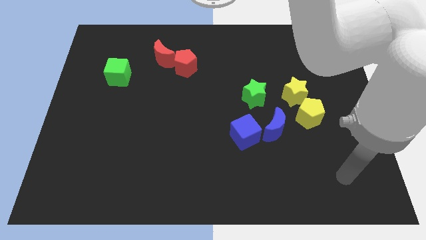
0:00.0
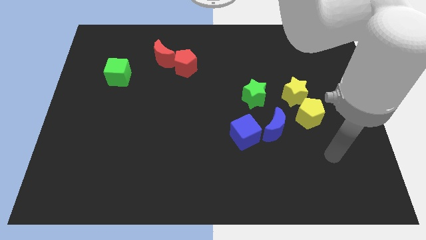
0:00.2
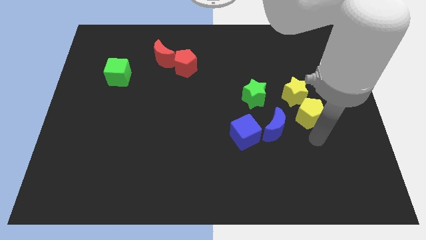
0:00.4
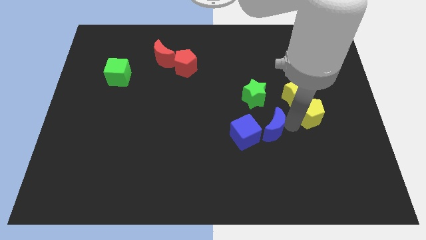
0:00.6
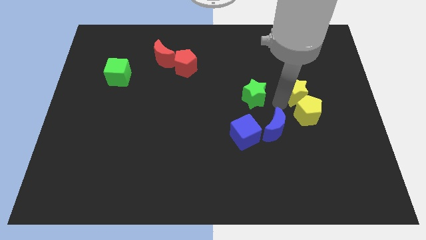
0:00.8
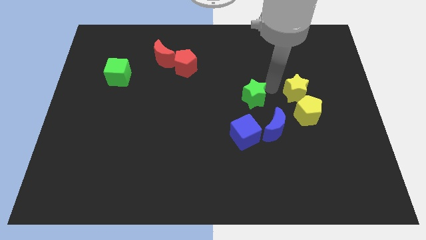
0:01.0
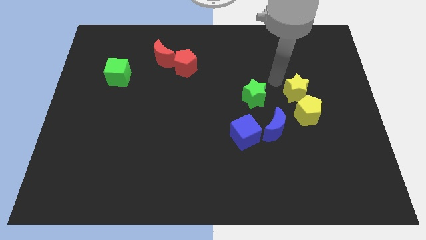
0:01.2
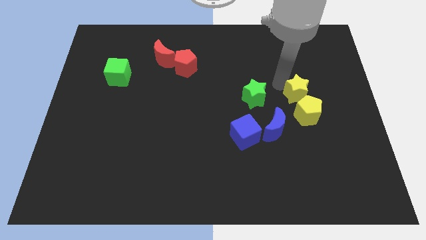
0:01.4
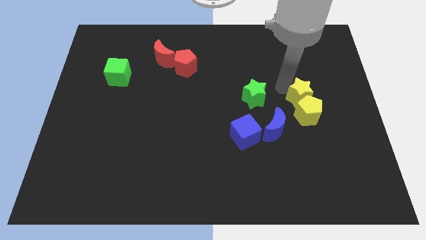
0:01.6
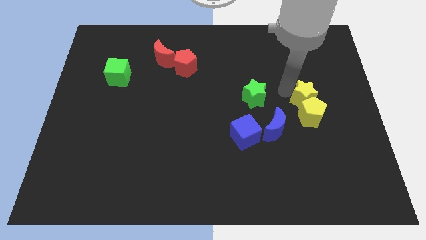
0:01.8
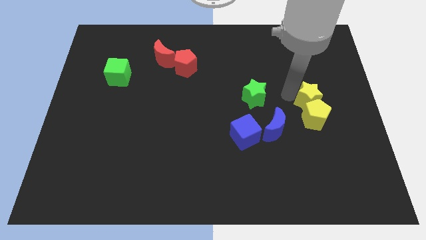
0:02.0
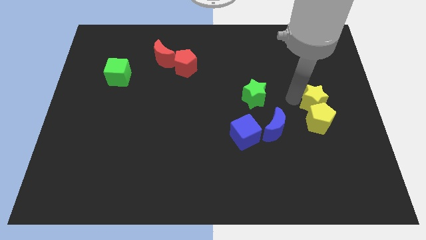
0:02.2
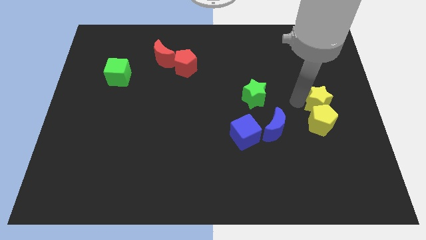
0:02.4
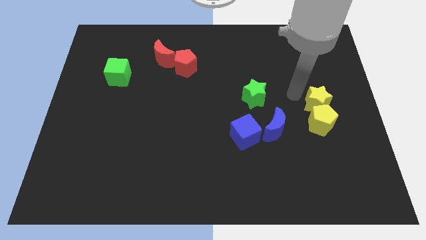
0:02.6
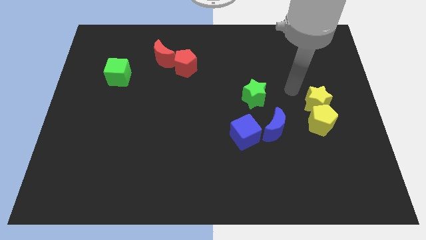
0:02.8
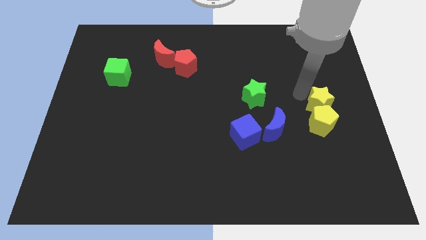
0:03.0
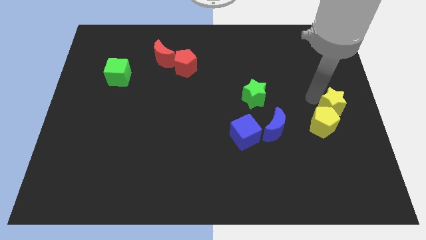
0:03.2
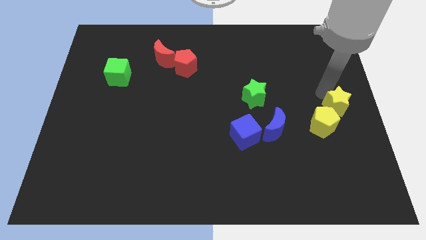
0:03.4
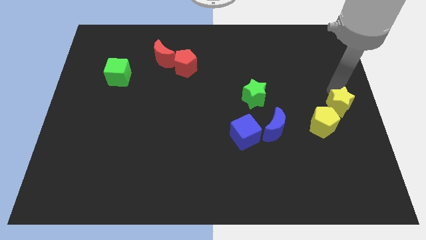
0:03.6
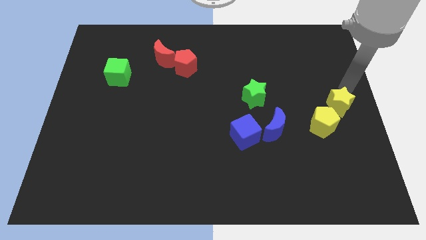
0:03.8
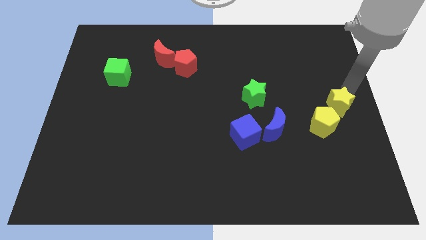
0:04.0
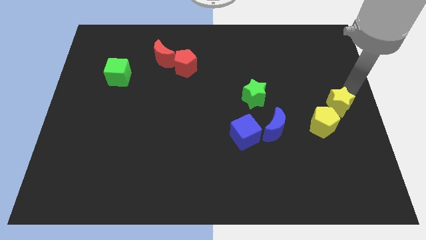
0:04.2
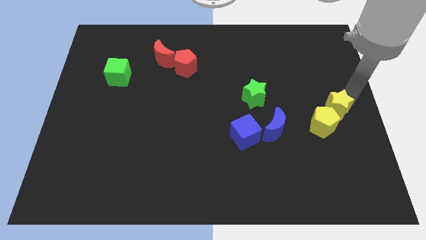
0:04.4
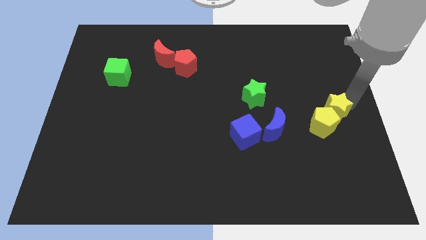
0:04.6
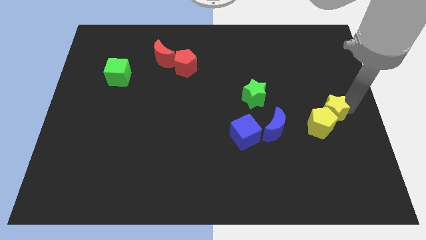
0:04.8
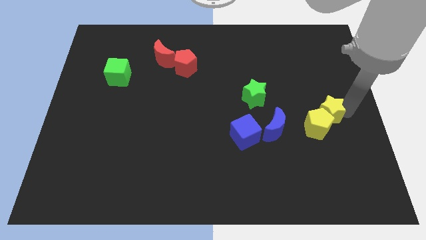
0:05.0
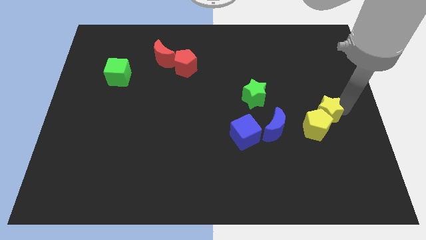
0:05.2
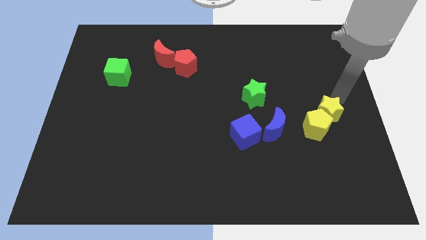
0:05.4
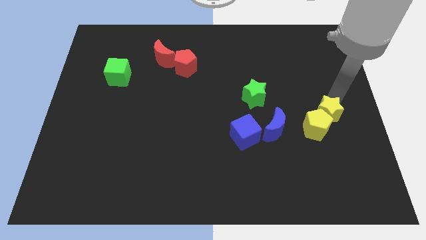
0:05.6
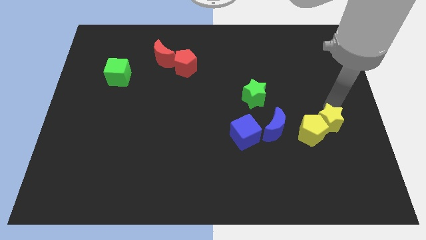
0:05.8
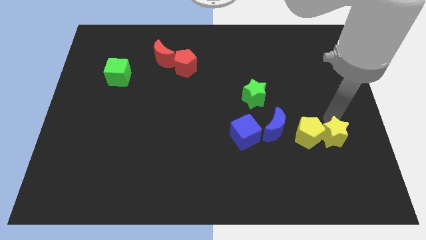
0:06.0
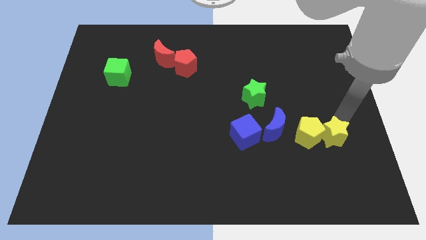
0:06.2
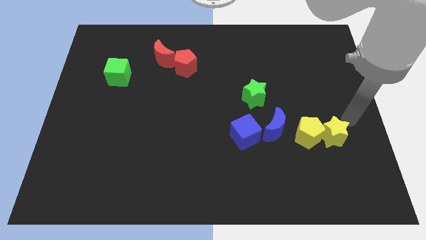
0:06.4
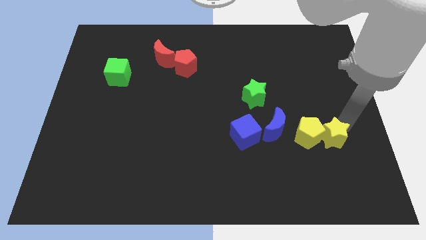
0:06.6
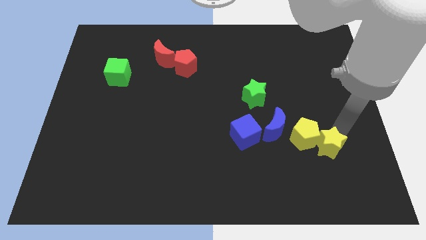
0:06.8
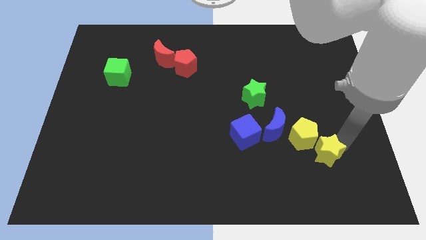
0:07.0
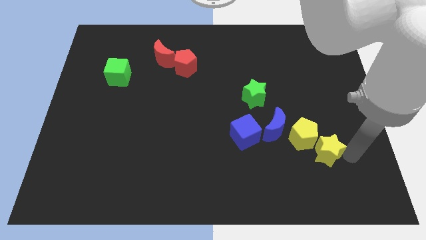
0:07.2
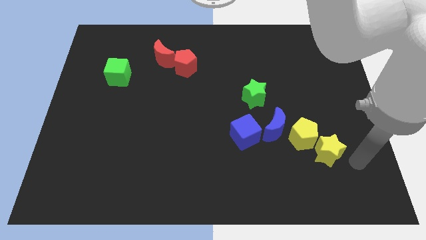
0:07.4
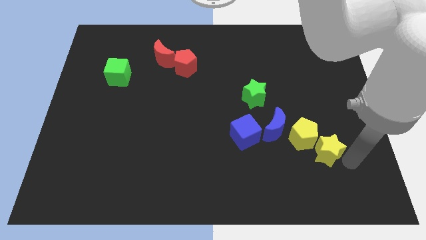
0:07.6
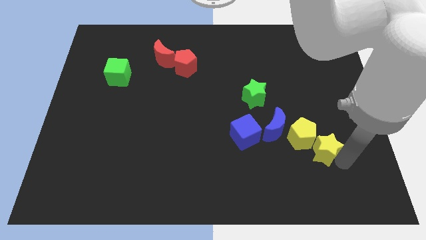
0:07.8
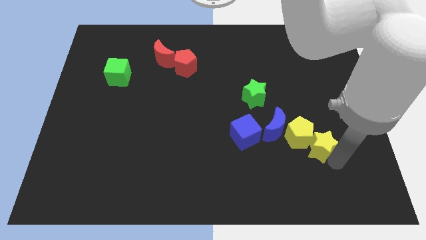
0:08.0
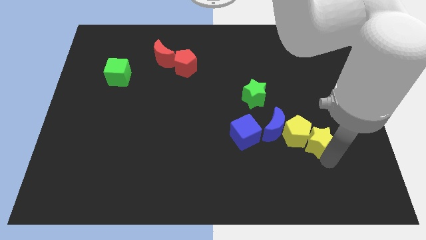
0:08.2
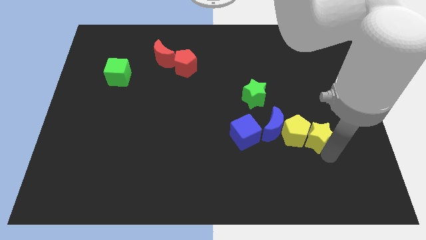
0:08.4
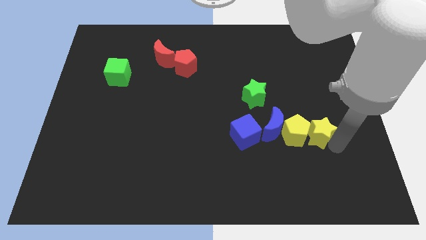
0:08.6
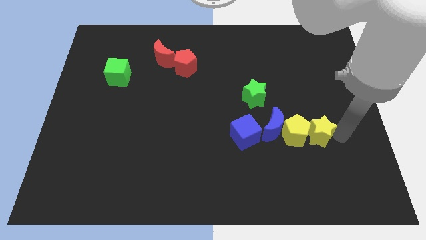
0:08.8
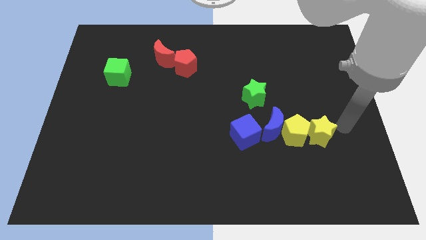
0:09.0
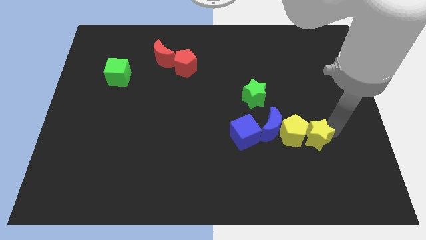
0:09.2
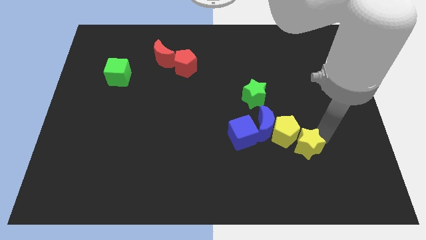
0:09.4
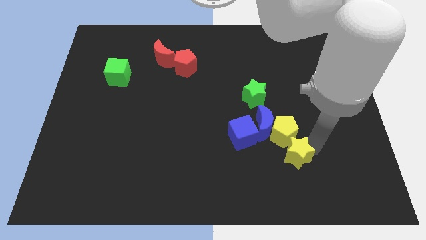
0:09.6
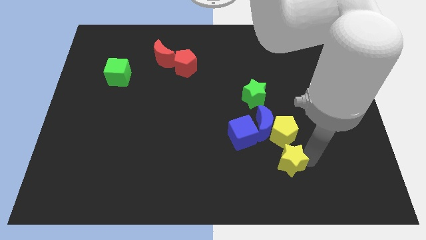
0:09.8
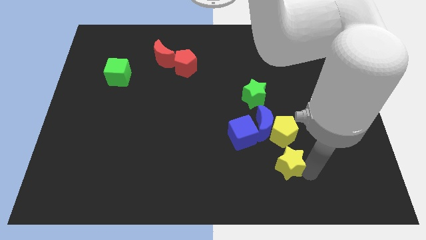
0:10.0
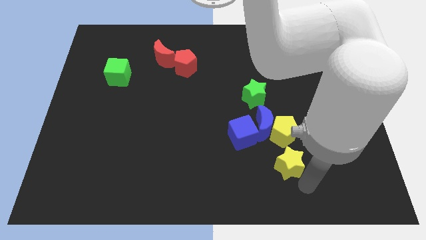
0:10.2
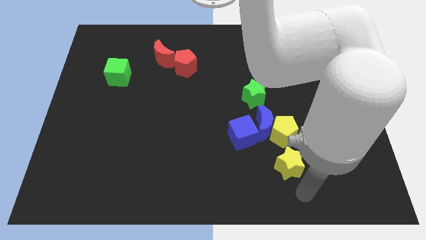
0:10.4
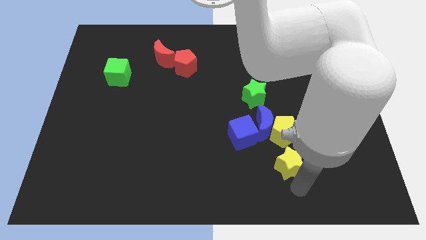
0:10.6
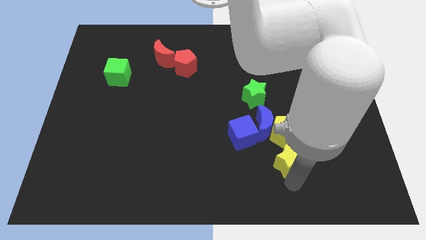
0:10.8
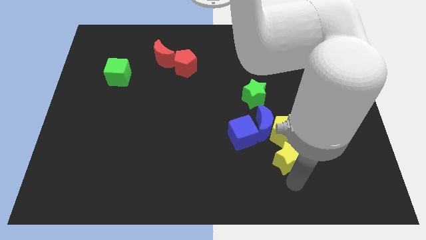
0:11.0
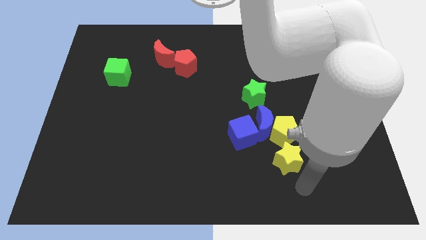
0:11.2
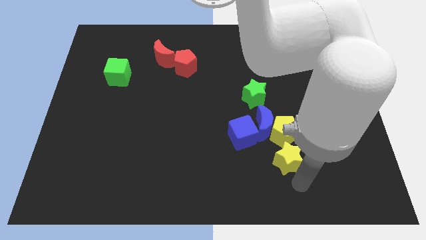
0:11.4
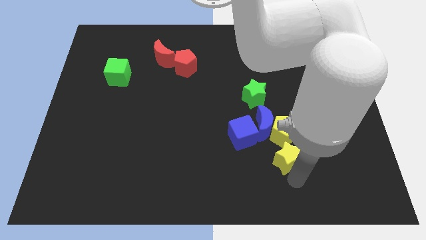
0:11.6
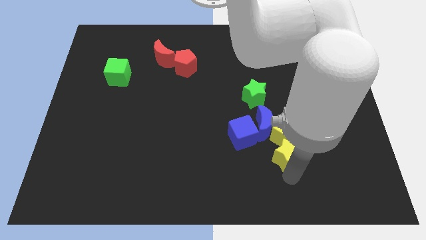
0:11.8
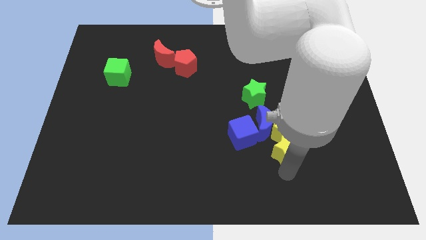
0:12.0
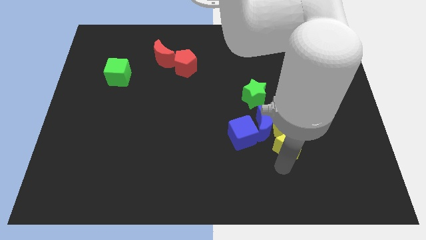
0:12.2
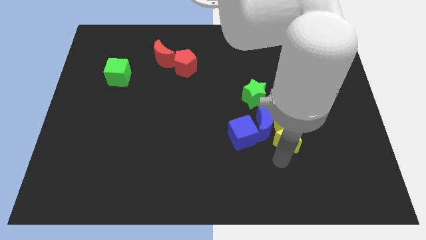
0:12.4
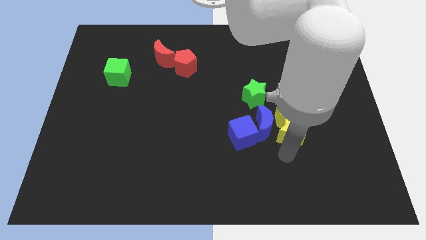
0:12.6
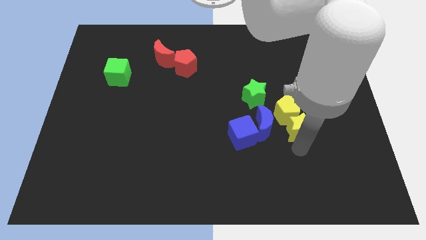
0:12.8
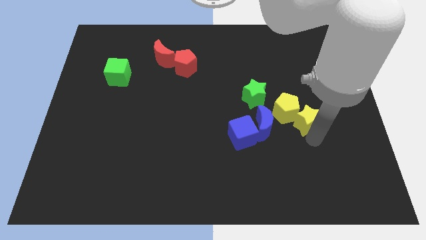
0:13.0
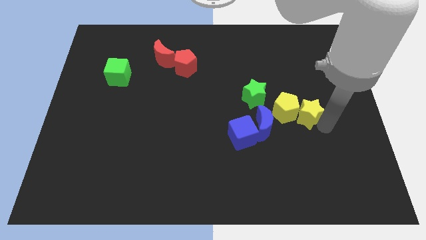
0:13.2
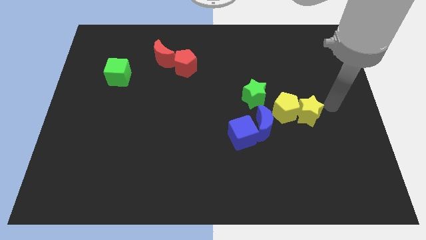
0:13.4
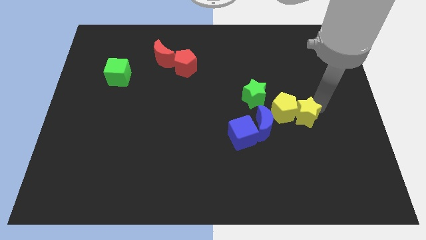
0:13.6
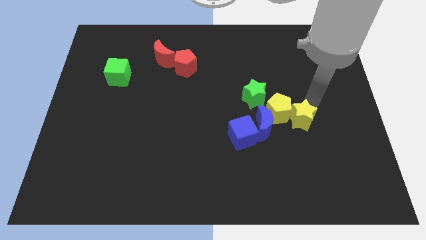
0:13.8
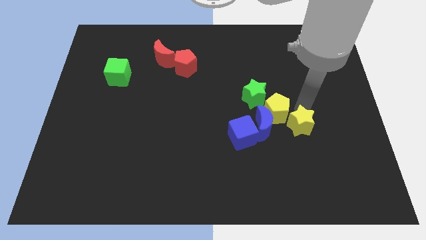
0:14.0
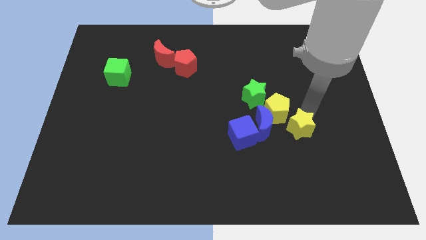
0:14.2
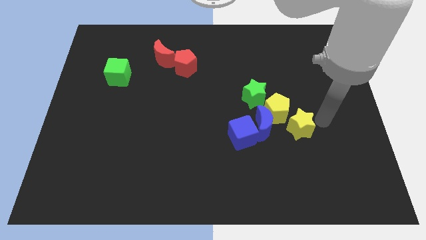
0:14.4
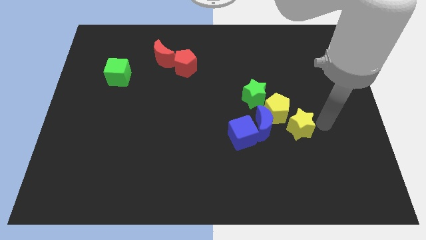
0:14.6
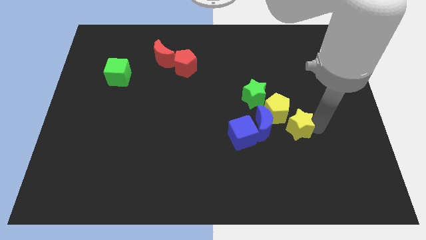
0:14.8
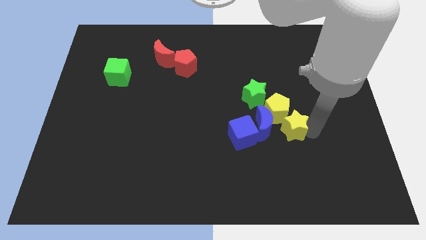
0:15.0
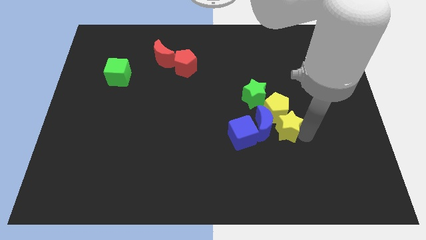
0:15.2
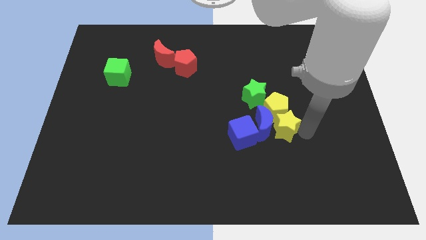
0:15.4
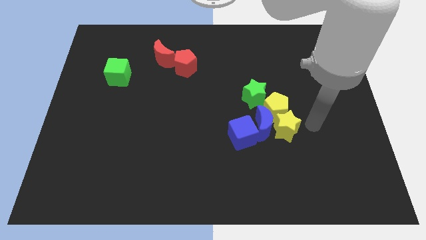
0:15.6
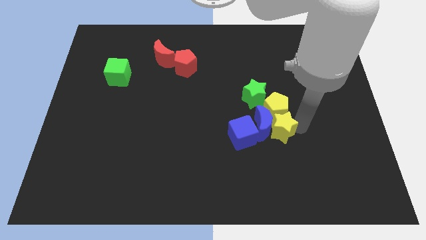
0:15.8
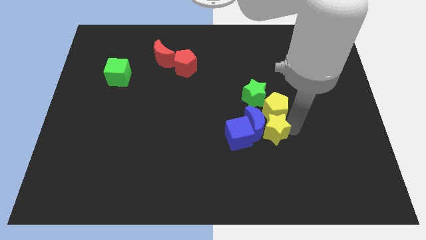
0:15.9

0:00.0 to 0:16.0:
push the yellow star to the bottom of the green star
